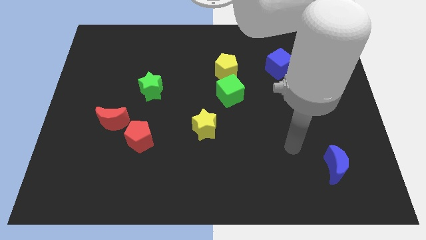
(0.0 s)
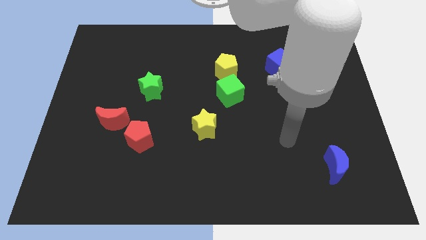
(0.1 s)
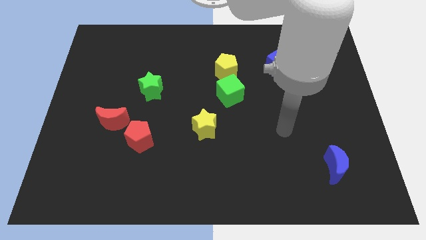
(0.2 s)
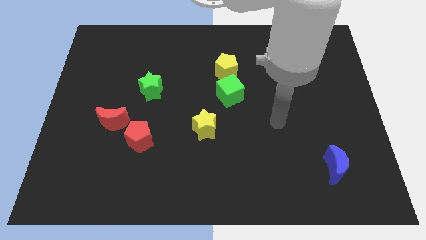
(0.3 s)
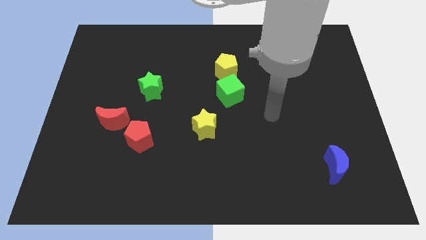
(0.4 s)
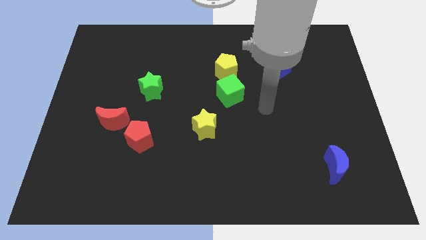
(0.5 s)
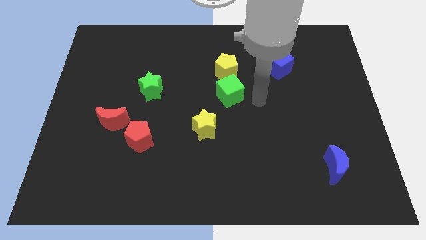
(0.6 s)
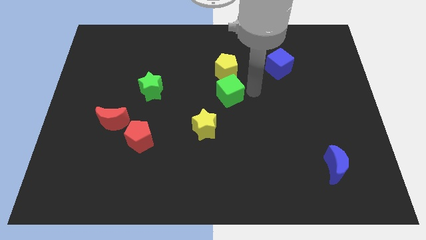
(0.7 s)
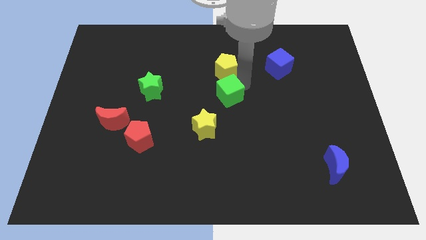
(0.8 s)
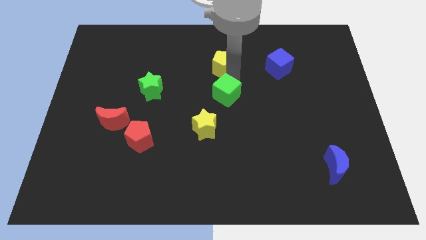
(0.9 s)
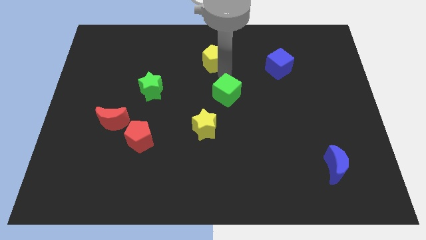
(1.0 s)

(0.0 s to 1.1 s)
separate the green cube from the yellow pentagon

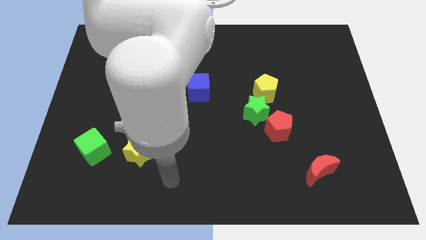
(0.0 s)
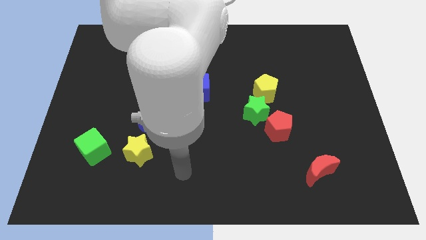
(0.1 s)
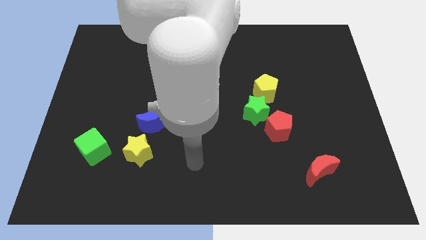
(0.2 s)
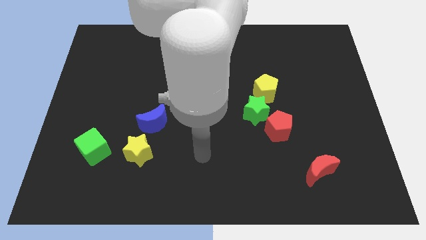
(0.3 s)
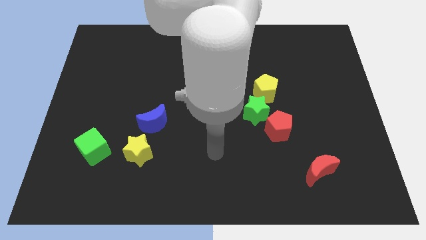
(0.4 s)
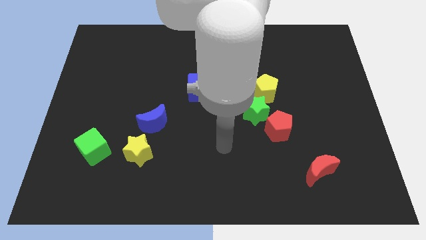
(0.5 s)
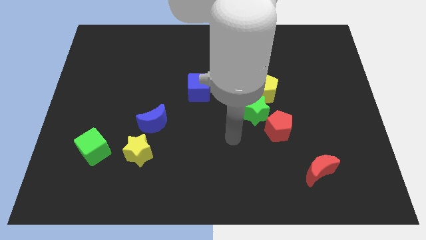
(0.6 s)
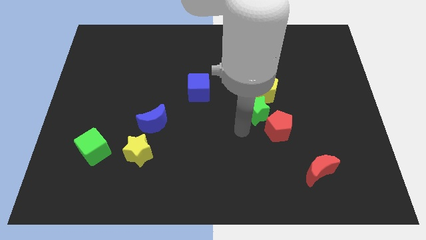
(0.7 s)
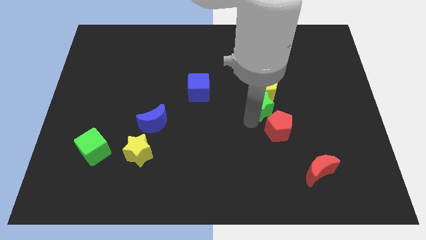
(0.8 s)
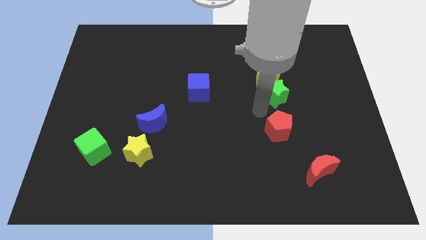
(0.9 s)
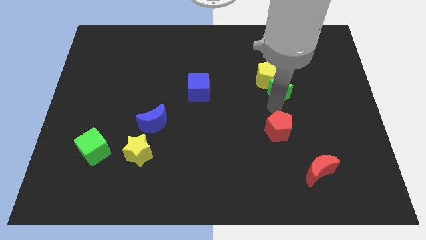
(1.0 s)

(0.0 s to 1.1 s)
move the red pentagon away from the green star

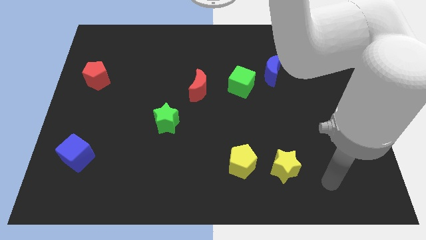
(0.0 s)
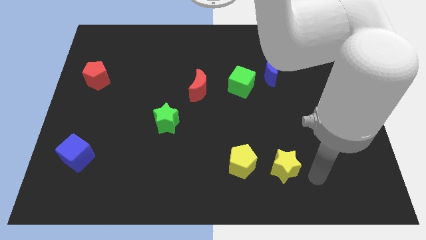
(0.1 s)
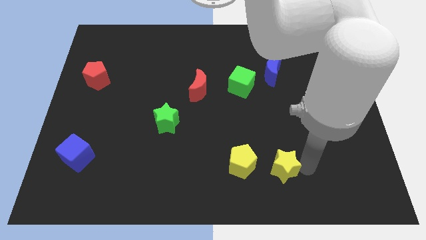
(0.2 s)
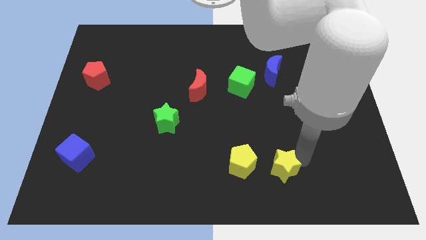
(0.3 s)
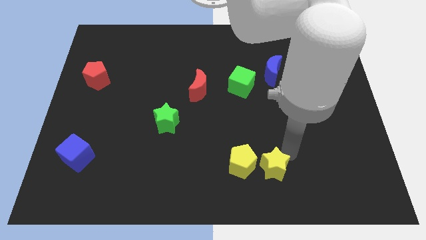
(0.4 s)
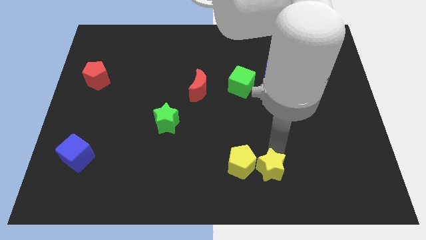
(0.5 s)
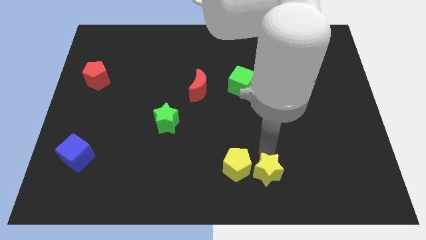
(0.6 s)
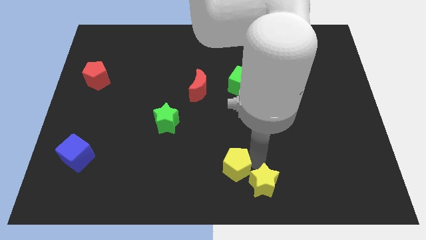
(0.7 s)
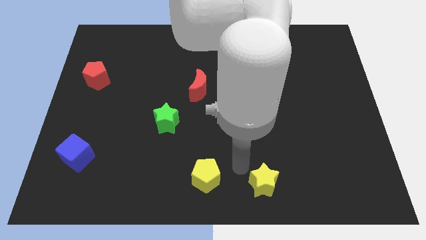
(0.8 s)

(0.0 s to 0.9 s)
move the yellow star away from the yellow pentagon

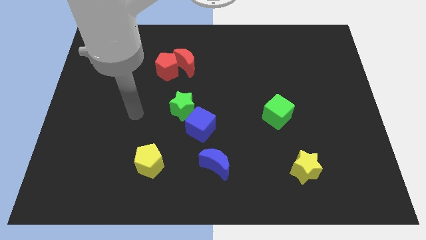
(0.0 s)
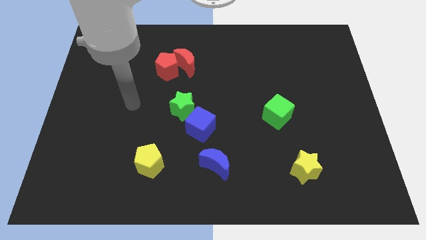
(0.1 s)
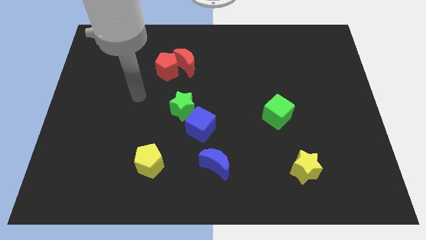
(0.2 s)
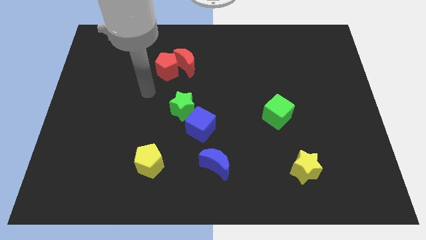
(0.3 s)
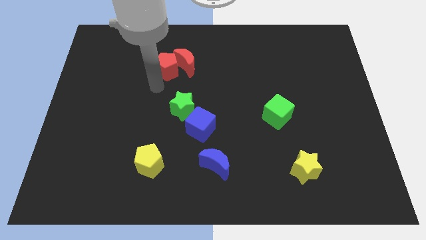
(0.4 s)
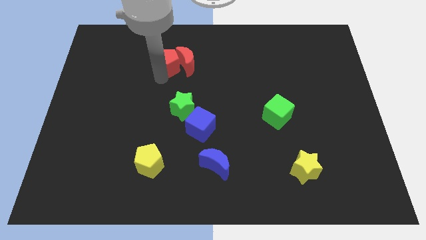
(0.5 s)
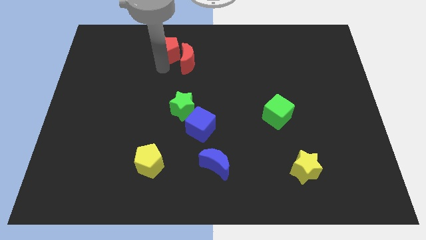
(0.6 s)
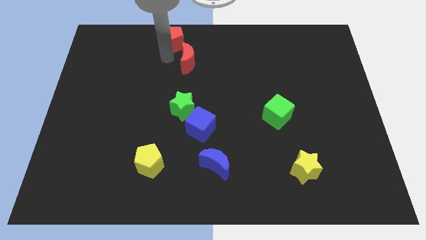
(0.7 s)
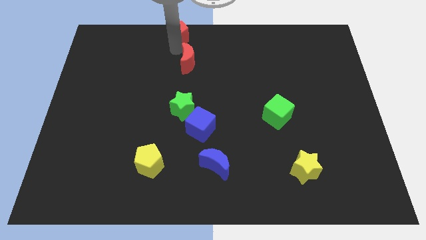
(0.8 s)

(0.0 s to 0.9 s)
pull the red moon apart from the red pentagon

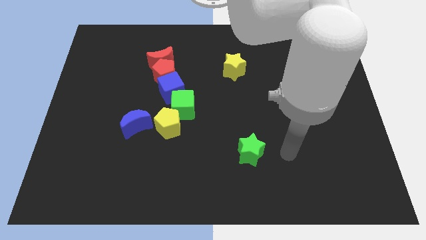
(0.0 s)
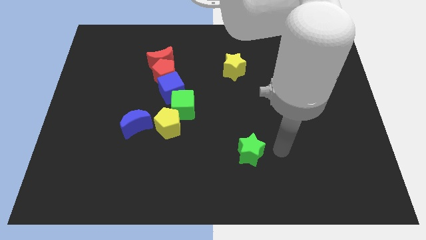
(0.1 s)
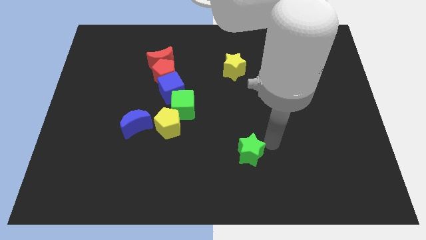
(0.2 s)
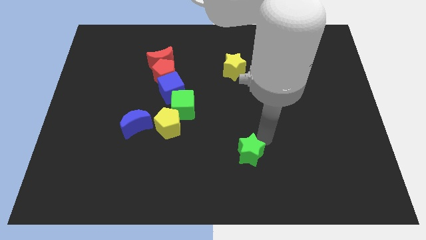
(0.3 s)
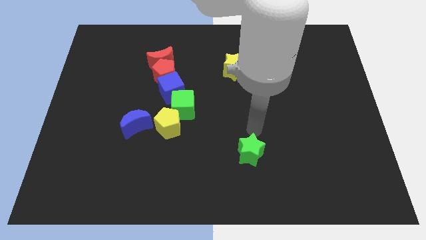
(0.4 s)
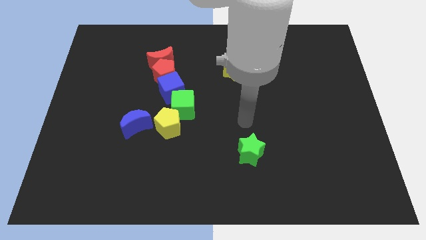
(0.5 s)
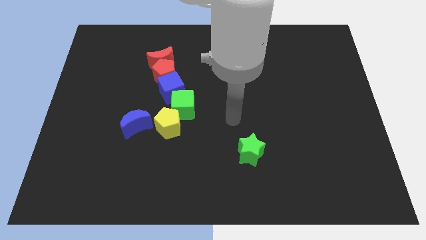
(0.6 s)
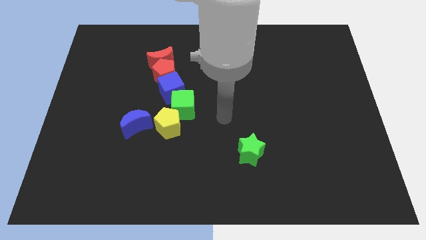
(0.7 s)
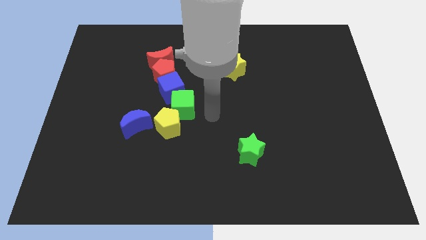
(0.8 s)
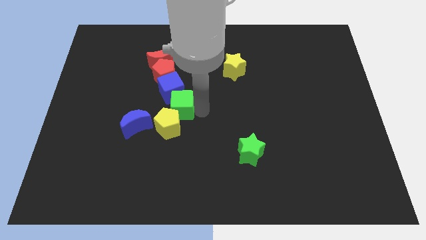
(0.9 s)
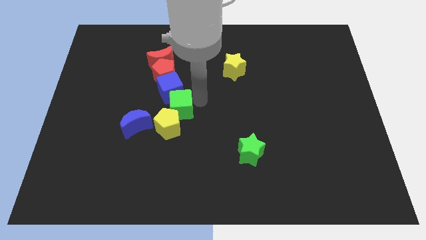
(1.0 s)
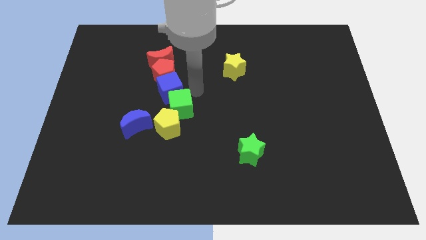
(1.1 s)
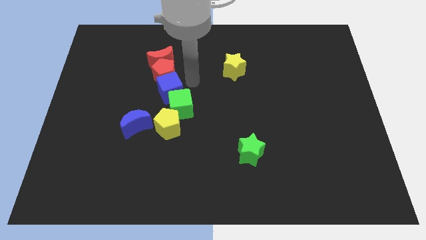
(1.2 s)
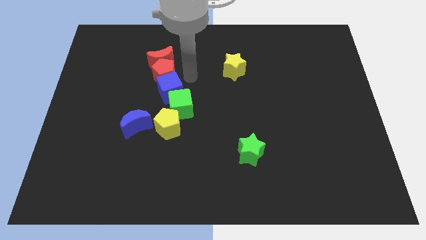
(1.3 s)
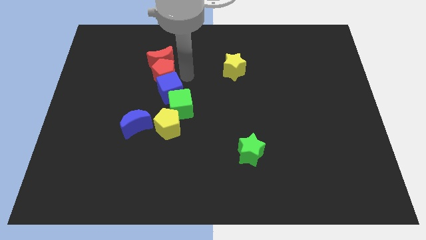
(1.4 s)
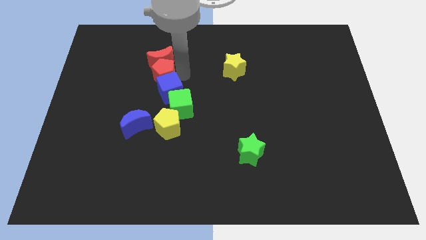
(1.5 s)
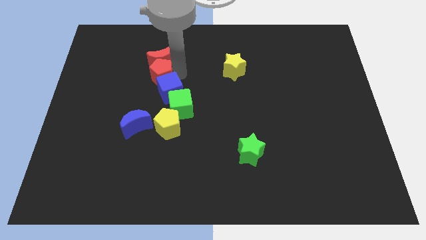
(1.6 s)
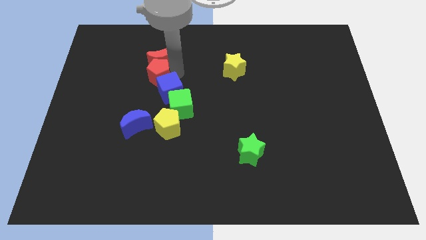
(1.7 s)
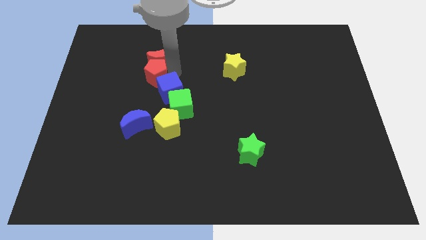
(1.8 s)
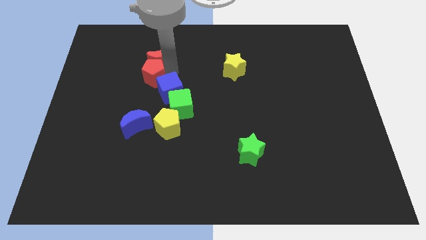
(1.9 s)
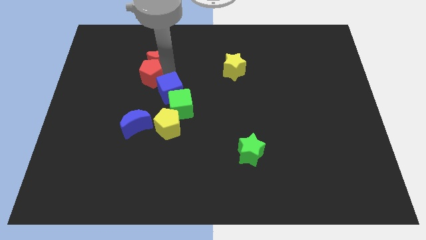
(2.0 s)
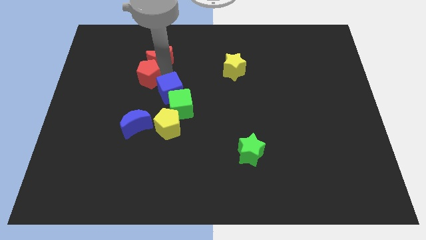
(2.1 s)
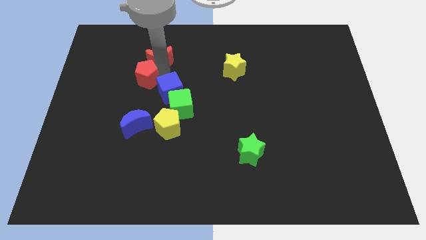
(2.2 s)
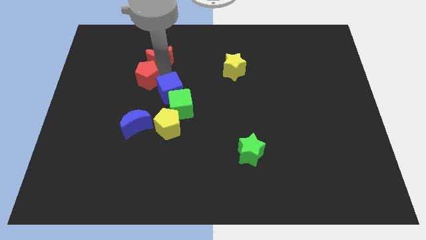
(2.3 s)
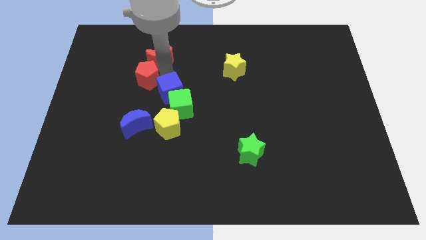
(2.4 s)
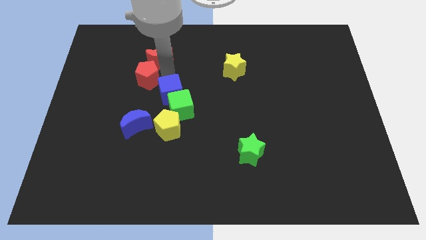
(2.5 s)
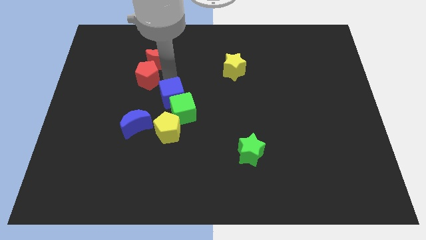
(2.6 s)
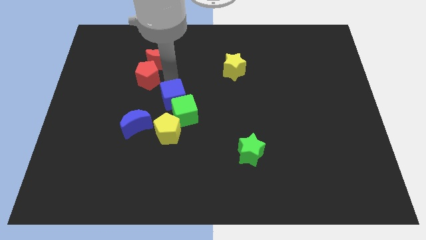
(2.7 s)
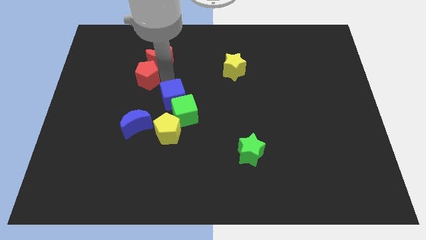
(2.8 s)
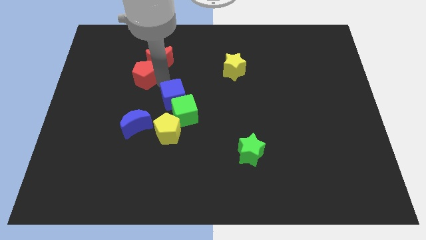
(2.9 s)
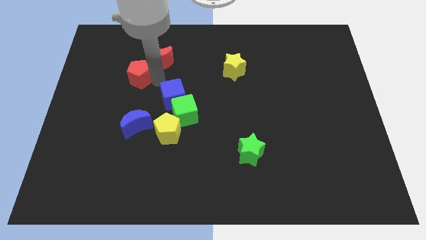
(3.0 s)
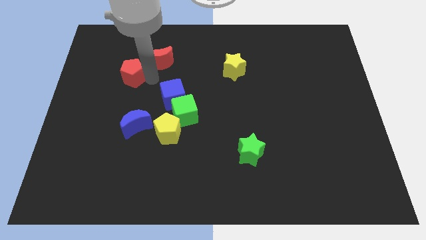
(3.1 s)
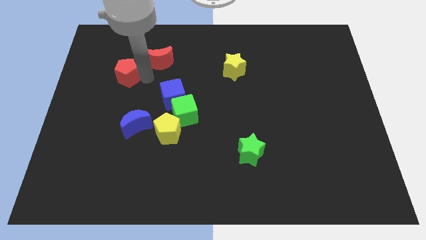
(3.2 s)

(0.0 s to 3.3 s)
move the red pentagon away from the red moon and blue cube

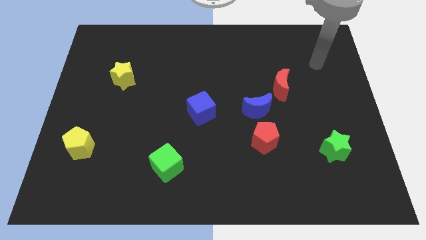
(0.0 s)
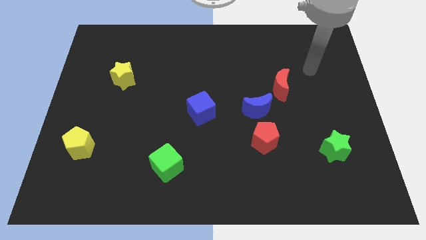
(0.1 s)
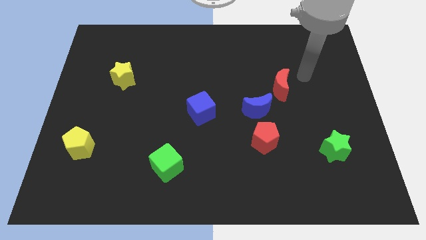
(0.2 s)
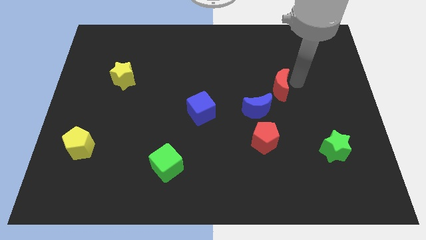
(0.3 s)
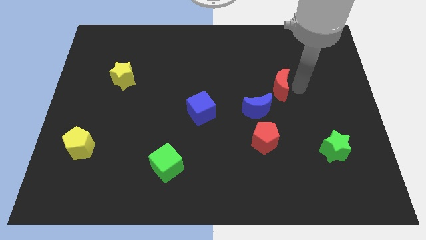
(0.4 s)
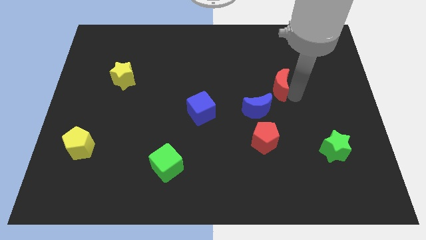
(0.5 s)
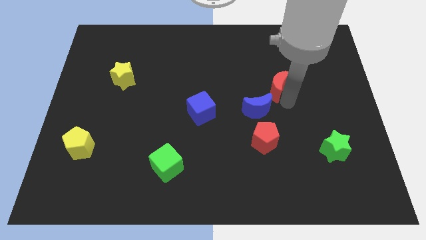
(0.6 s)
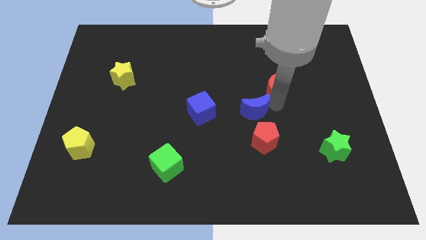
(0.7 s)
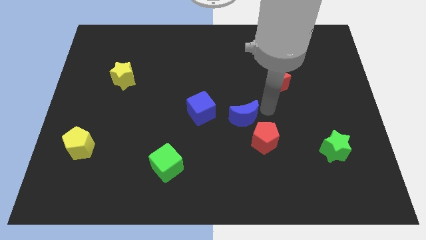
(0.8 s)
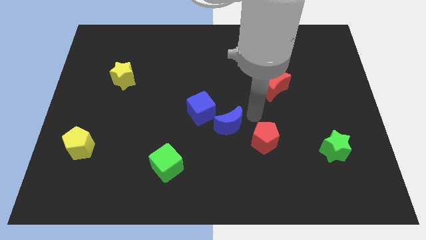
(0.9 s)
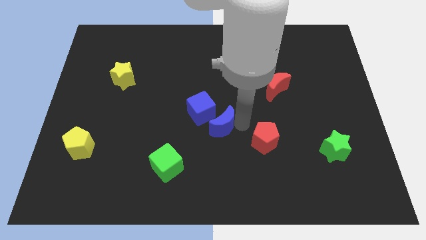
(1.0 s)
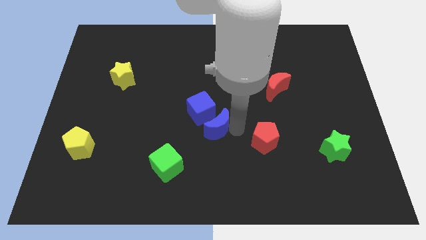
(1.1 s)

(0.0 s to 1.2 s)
move the red pentagon away from the blue moon

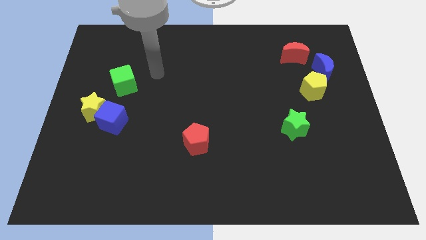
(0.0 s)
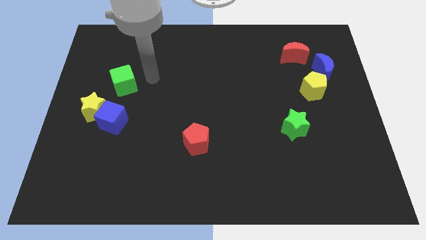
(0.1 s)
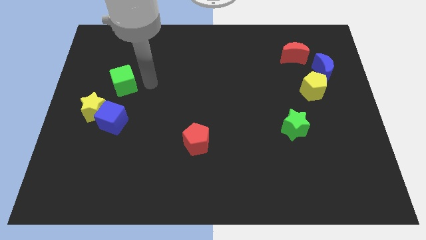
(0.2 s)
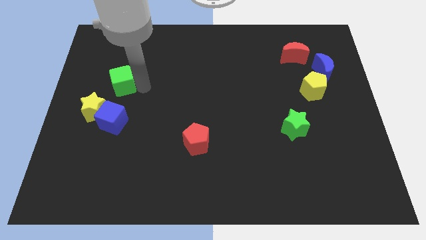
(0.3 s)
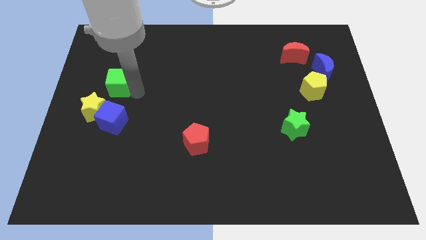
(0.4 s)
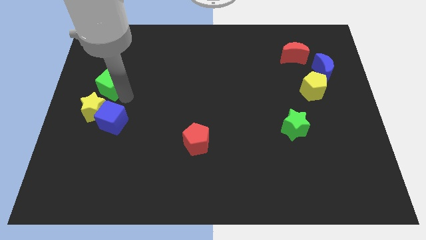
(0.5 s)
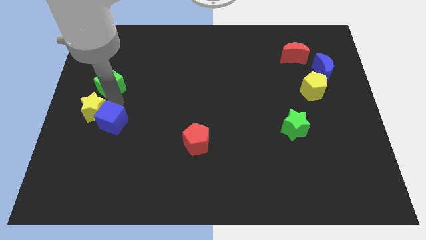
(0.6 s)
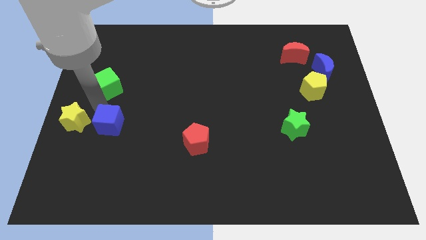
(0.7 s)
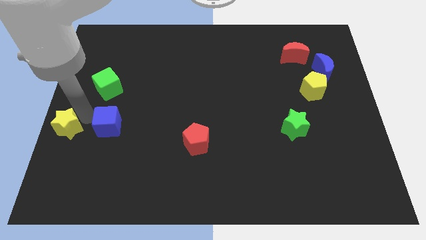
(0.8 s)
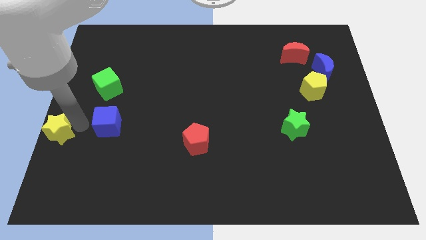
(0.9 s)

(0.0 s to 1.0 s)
move the blue cube away from the yellow star
